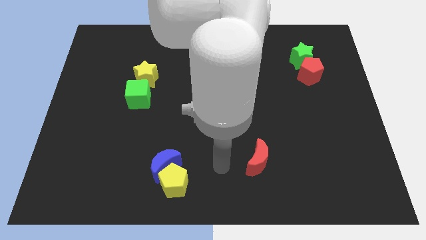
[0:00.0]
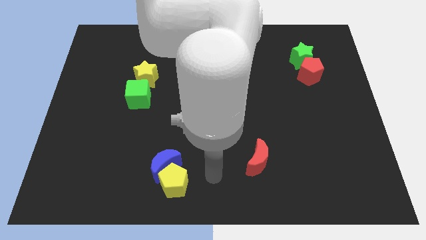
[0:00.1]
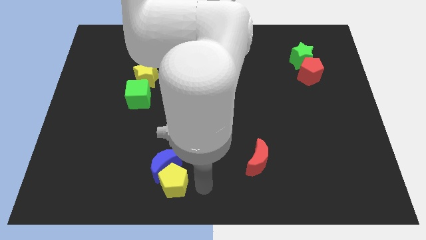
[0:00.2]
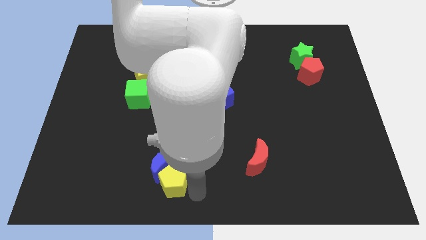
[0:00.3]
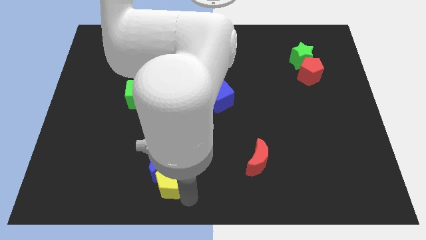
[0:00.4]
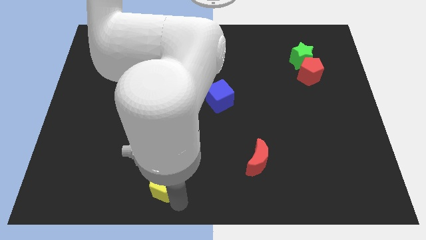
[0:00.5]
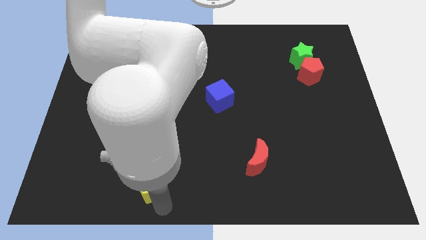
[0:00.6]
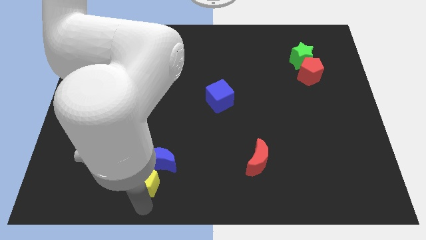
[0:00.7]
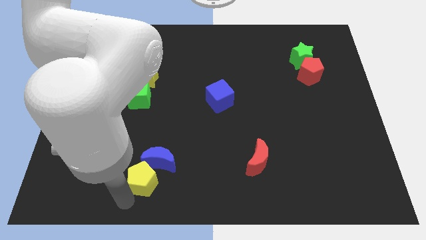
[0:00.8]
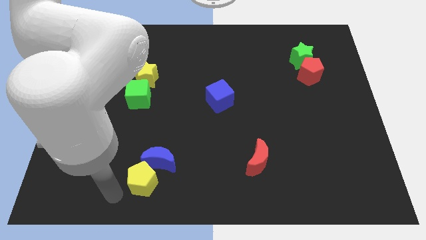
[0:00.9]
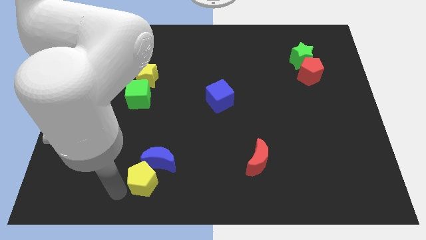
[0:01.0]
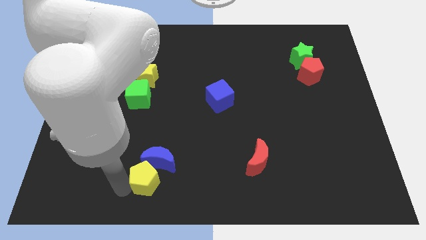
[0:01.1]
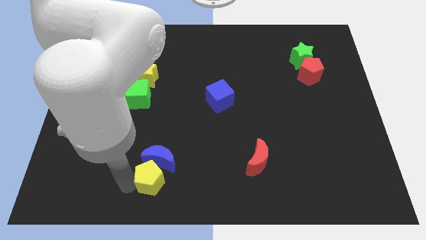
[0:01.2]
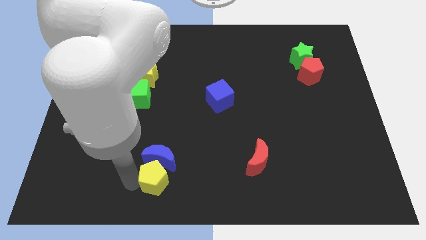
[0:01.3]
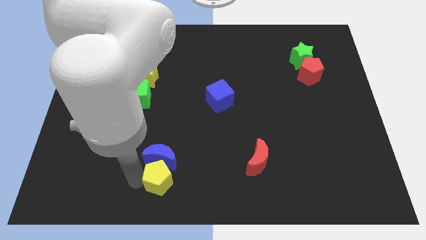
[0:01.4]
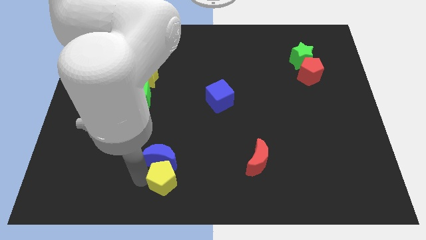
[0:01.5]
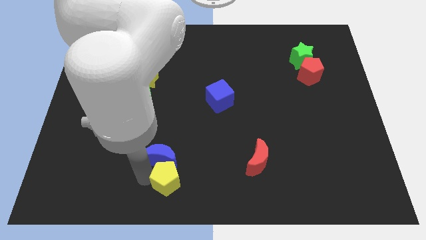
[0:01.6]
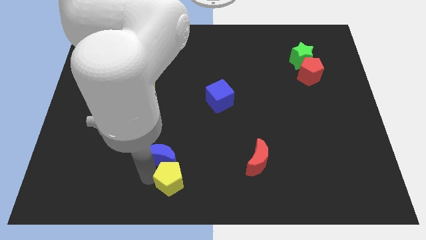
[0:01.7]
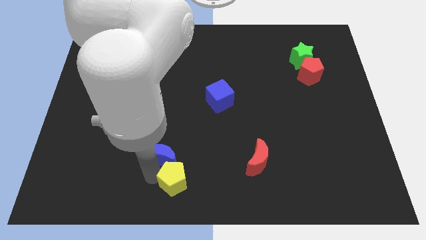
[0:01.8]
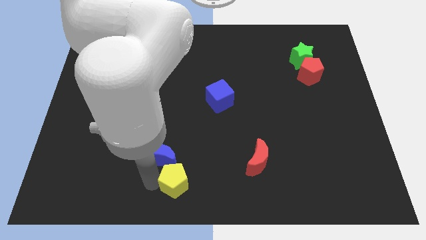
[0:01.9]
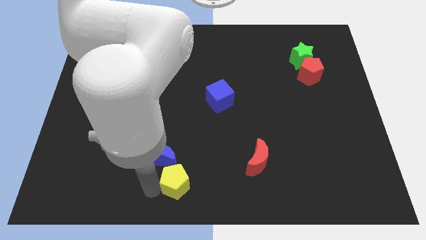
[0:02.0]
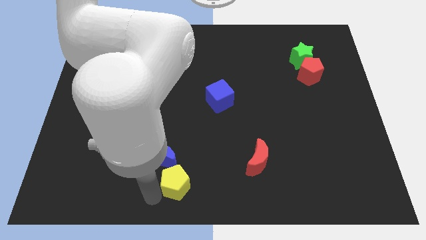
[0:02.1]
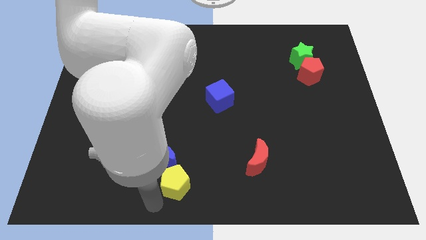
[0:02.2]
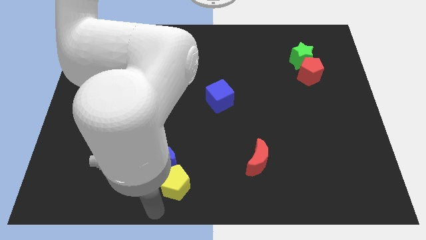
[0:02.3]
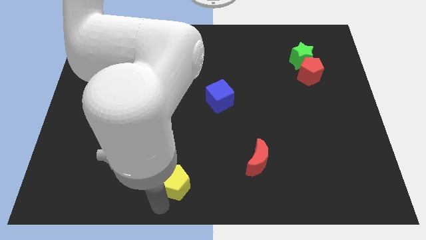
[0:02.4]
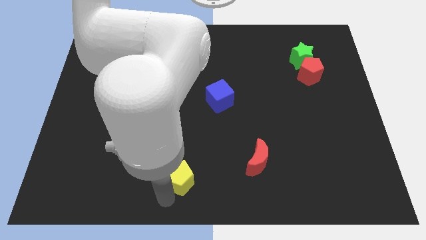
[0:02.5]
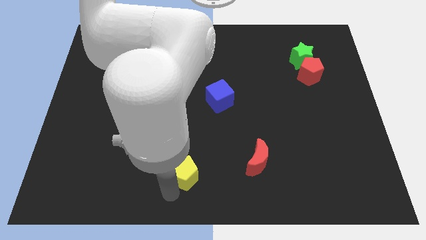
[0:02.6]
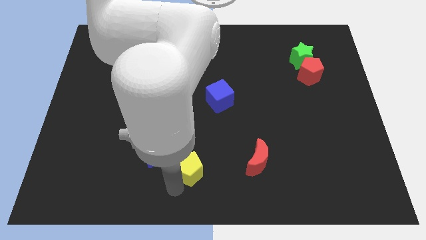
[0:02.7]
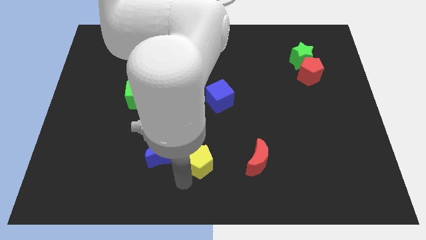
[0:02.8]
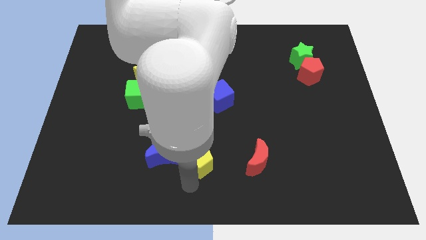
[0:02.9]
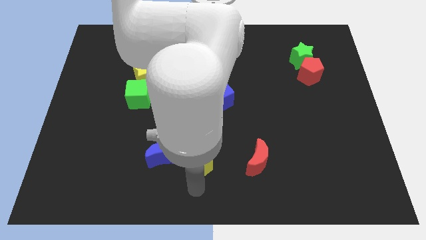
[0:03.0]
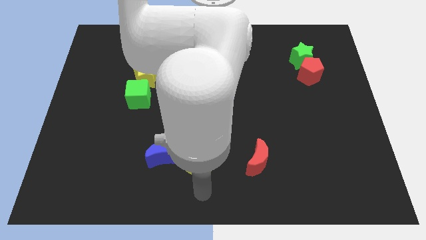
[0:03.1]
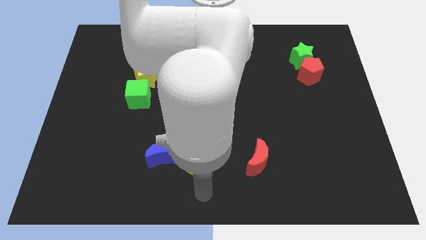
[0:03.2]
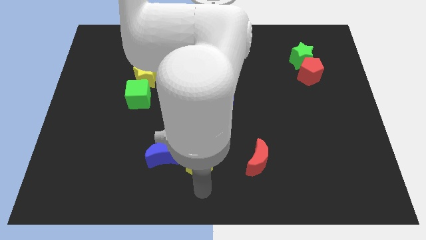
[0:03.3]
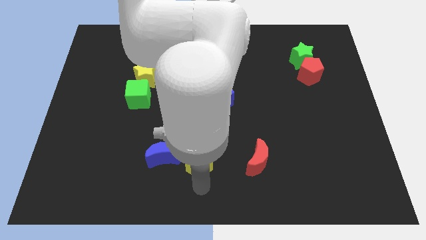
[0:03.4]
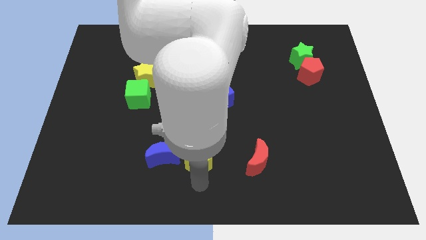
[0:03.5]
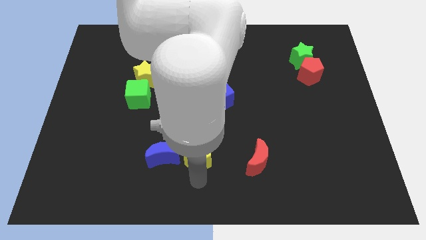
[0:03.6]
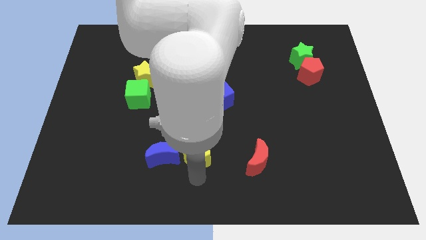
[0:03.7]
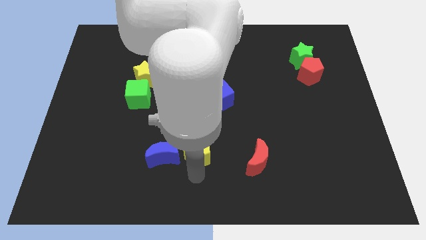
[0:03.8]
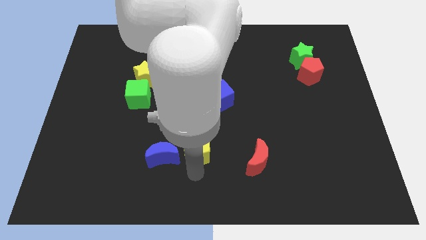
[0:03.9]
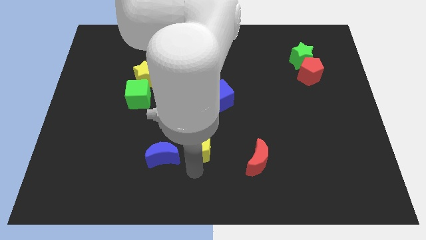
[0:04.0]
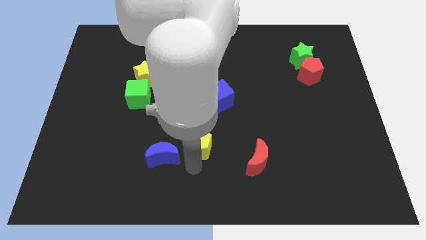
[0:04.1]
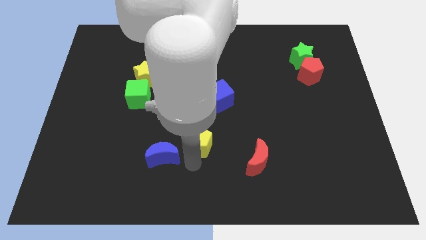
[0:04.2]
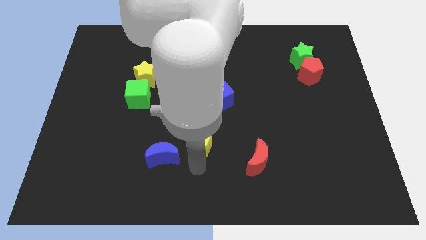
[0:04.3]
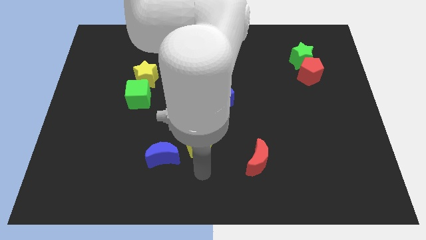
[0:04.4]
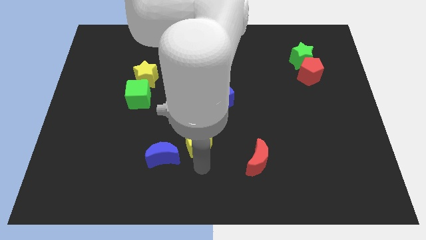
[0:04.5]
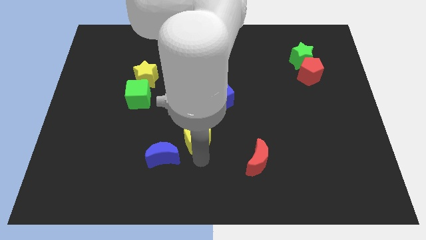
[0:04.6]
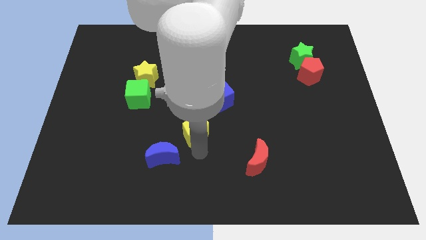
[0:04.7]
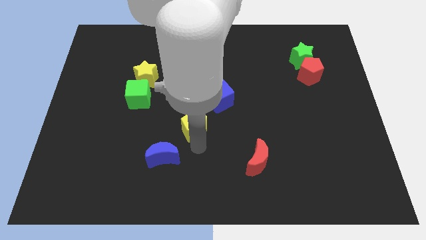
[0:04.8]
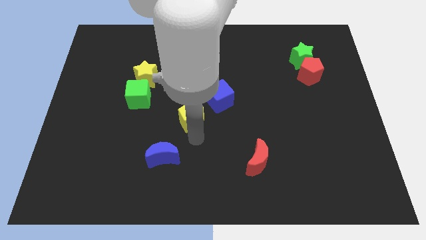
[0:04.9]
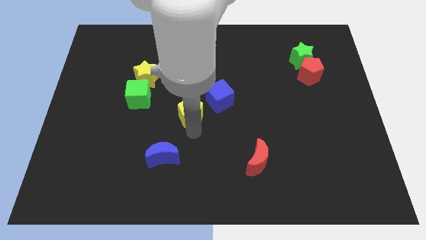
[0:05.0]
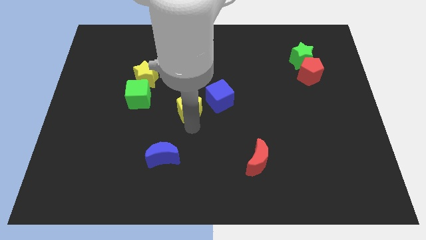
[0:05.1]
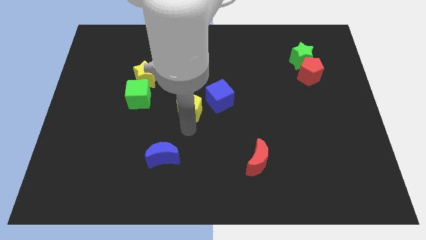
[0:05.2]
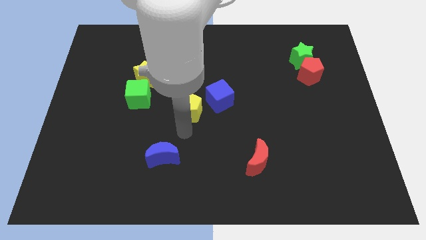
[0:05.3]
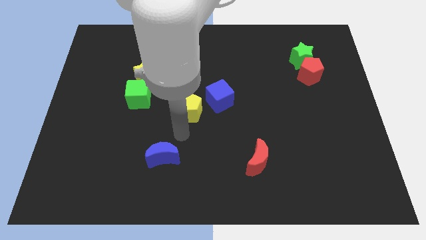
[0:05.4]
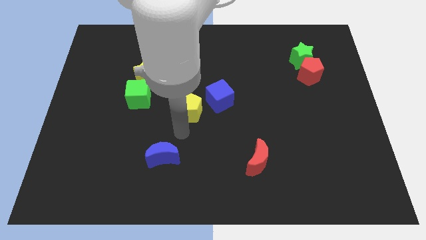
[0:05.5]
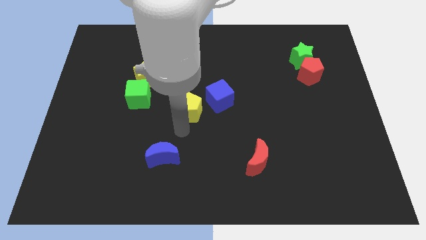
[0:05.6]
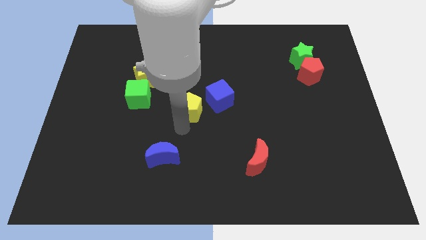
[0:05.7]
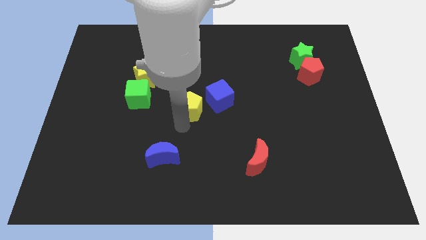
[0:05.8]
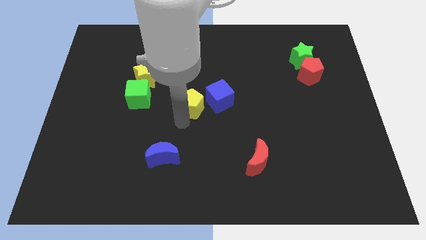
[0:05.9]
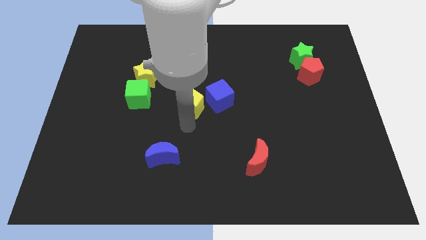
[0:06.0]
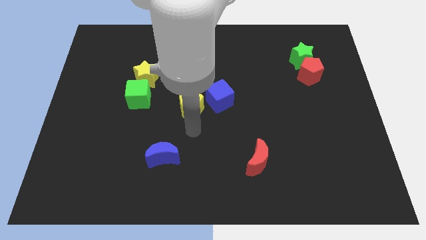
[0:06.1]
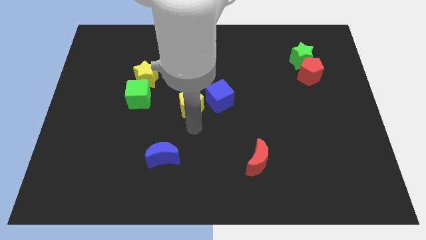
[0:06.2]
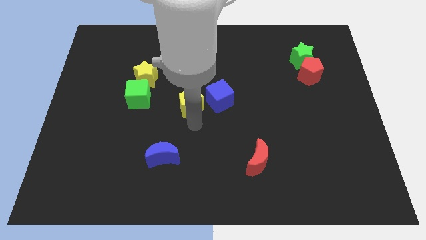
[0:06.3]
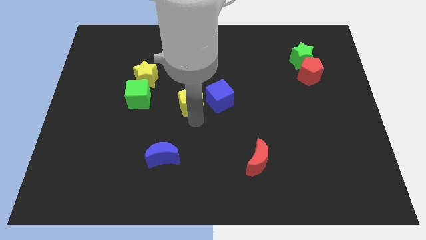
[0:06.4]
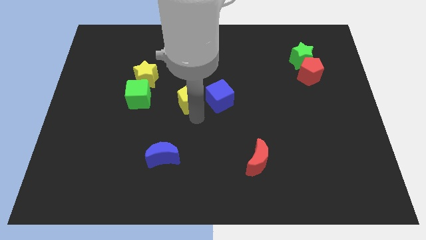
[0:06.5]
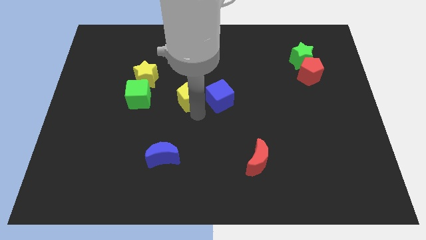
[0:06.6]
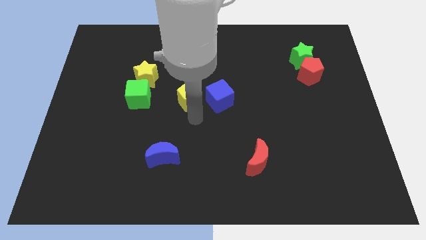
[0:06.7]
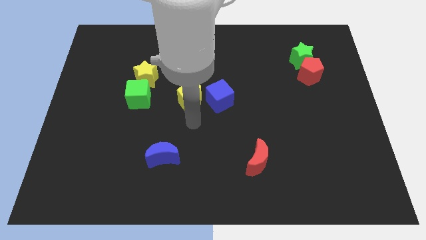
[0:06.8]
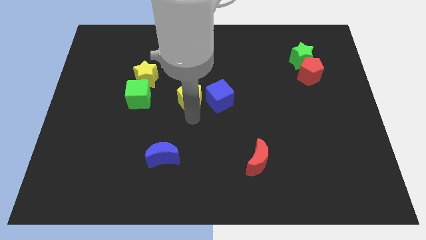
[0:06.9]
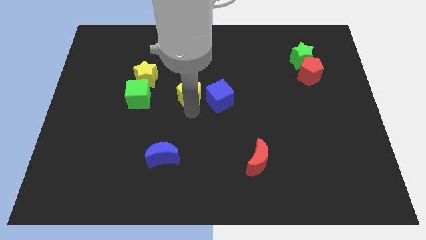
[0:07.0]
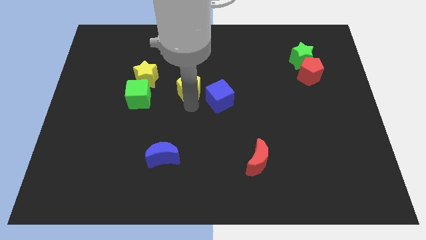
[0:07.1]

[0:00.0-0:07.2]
put the yellow pentagon to the right of the yellow star
